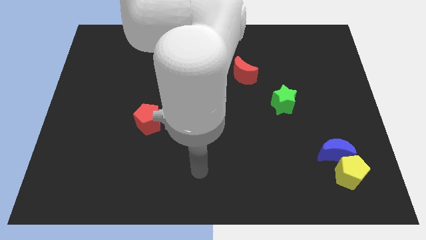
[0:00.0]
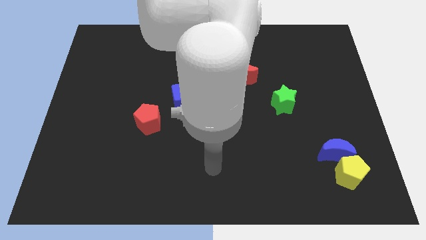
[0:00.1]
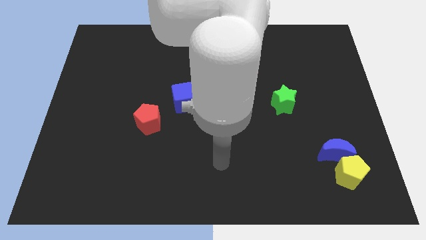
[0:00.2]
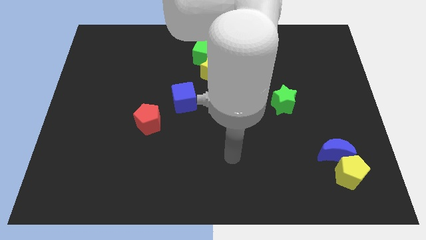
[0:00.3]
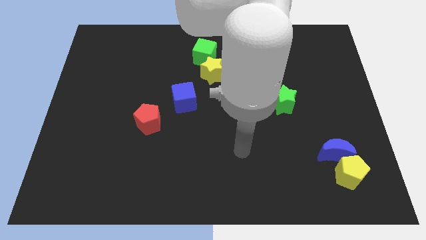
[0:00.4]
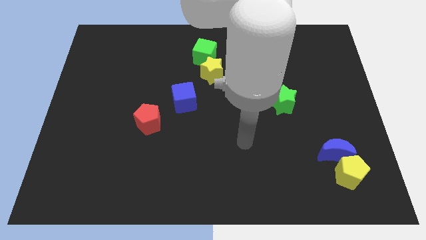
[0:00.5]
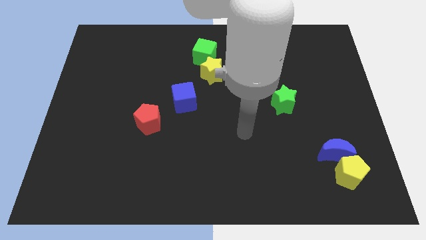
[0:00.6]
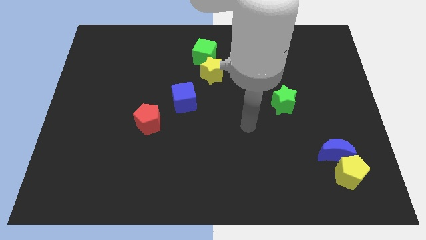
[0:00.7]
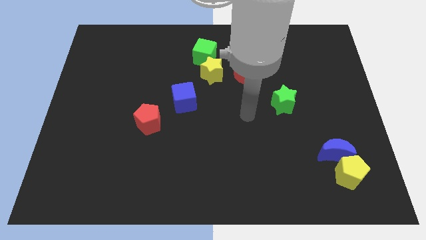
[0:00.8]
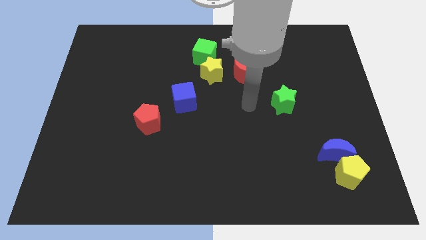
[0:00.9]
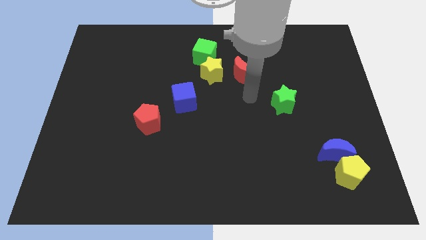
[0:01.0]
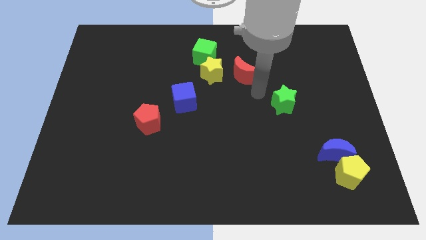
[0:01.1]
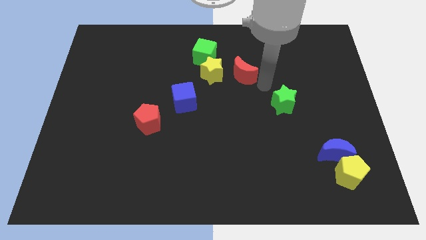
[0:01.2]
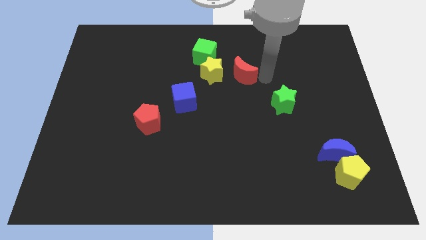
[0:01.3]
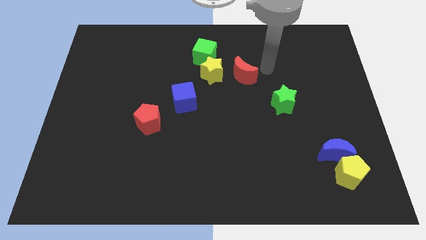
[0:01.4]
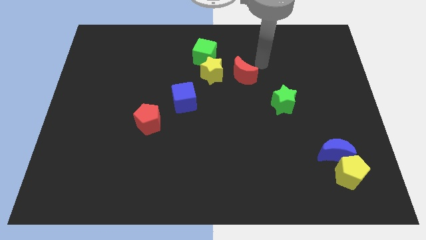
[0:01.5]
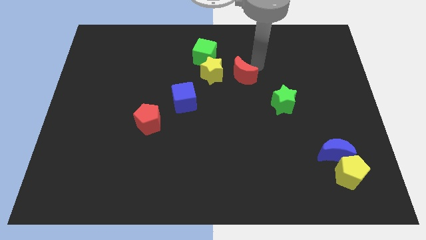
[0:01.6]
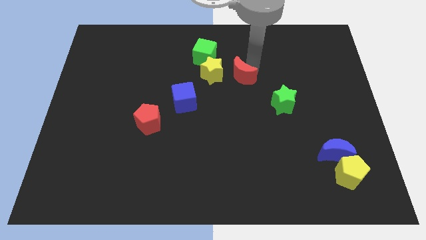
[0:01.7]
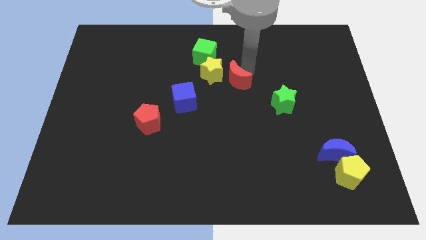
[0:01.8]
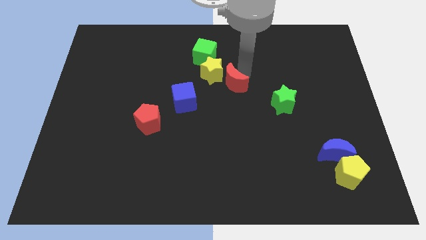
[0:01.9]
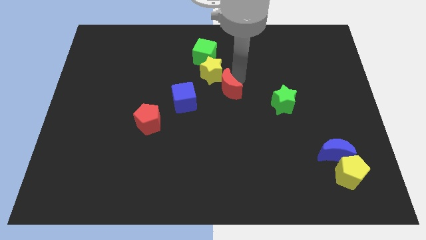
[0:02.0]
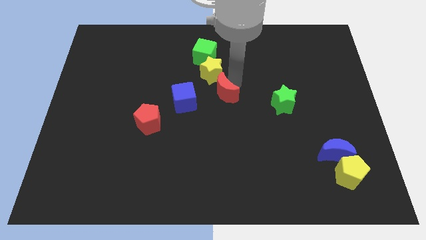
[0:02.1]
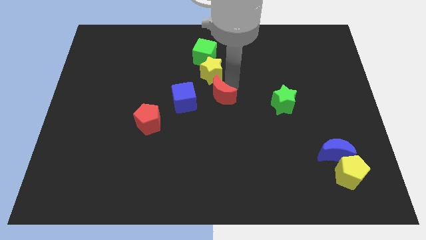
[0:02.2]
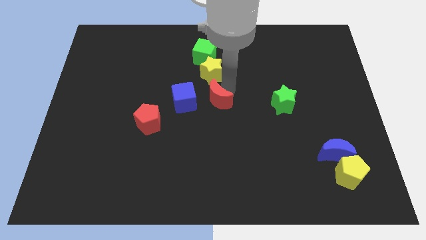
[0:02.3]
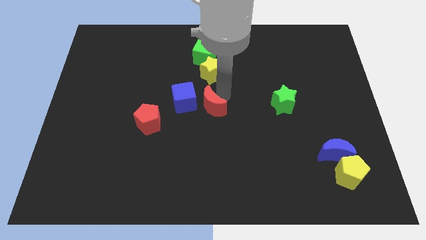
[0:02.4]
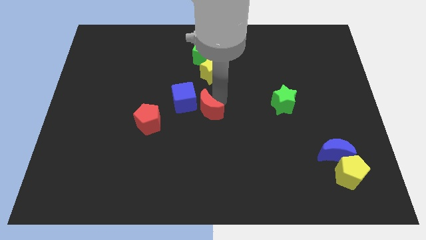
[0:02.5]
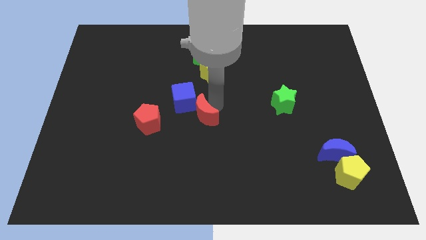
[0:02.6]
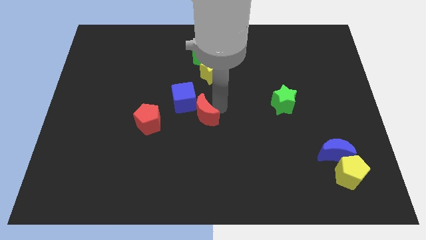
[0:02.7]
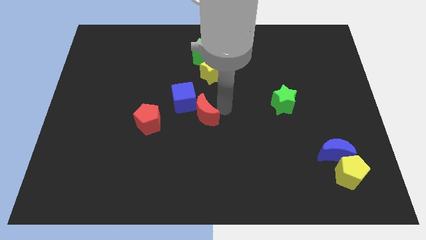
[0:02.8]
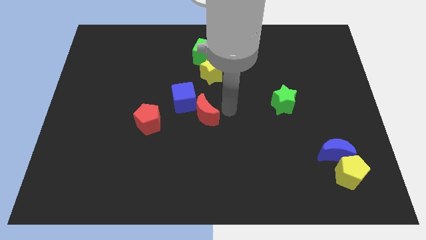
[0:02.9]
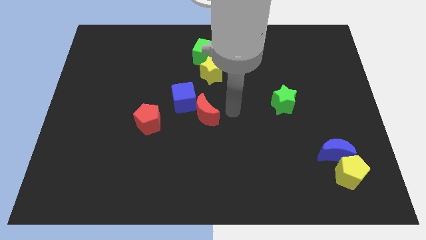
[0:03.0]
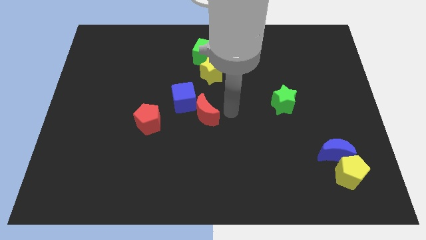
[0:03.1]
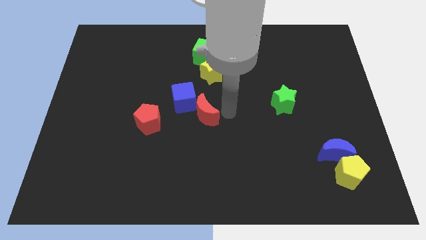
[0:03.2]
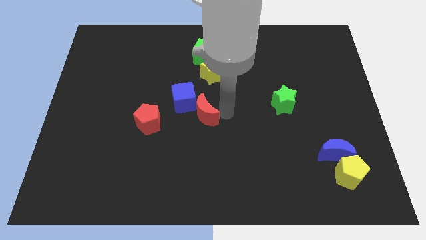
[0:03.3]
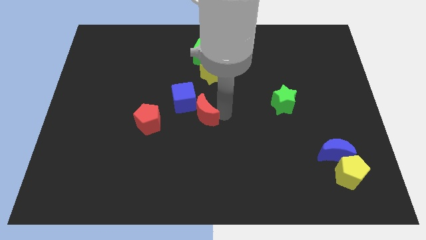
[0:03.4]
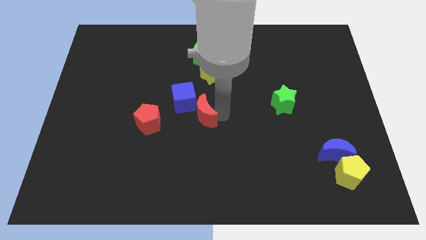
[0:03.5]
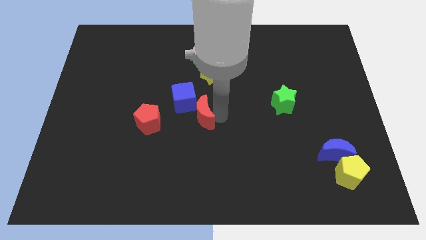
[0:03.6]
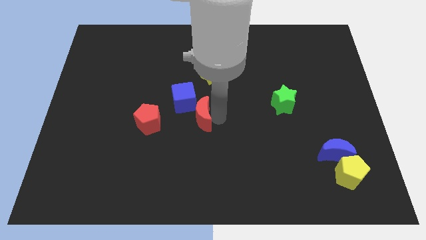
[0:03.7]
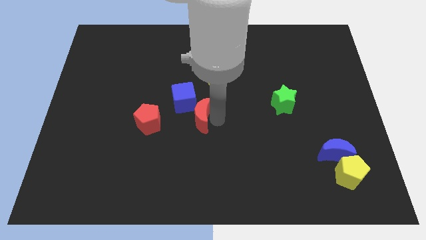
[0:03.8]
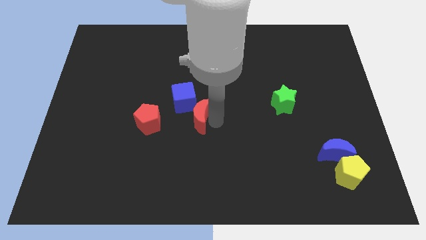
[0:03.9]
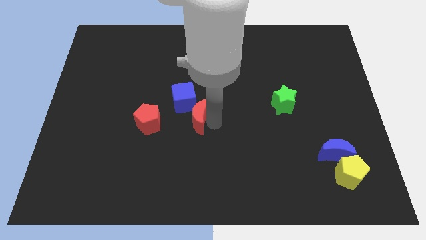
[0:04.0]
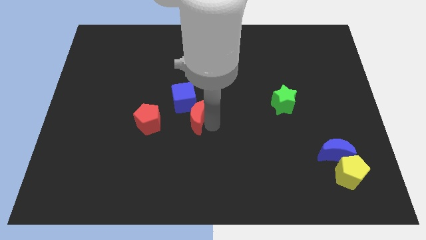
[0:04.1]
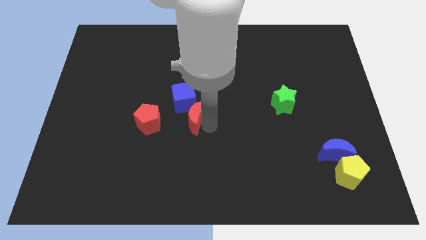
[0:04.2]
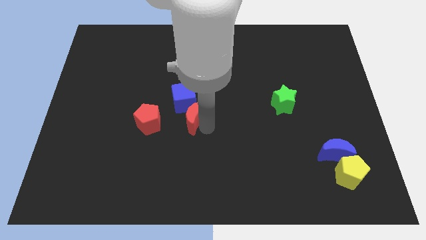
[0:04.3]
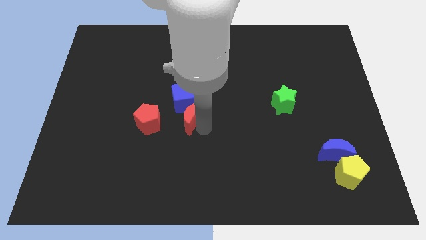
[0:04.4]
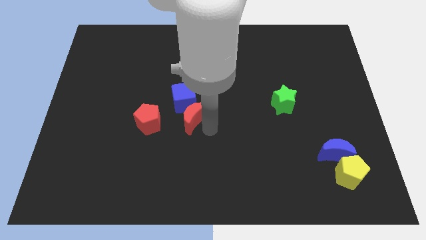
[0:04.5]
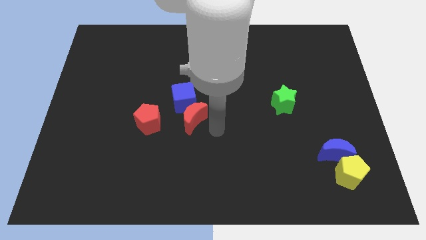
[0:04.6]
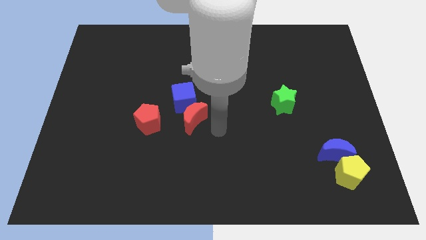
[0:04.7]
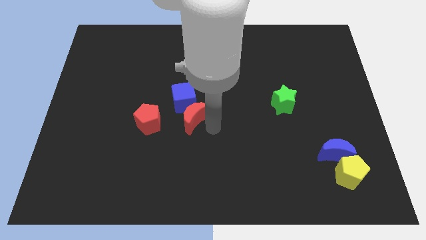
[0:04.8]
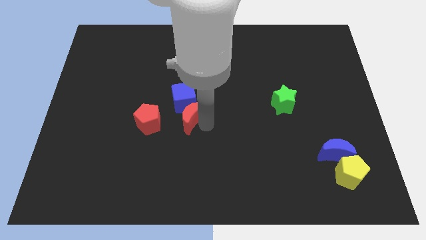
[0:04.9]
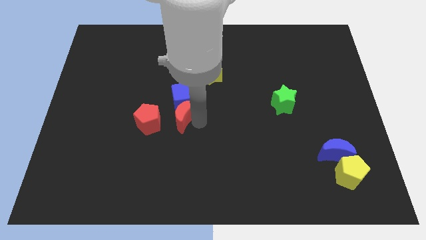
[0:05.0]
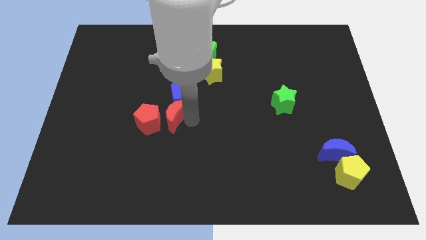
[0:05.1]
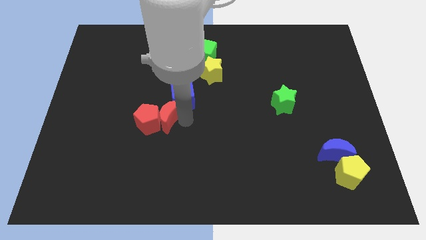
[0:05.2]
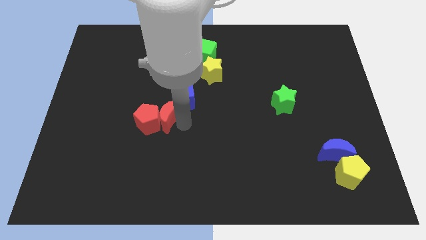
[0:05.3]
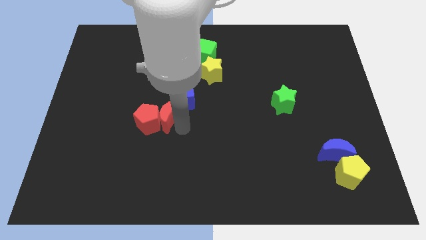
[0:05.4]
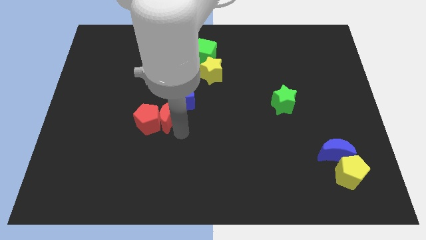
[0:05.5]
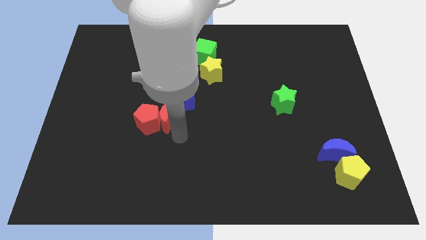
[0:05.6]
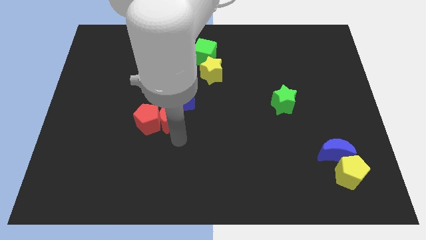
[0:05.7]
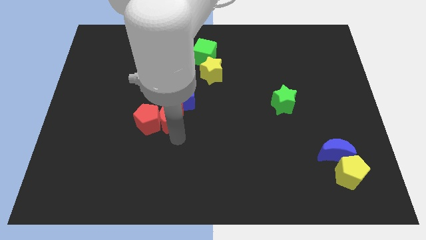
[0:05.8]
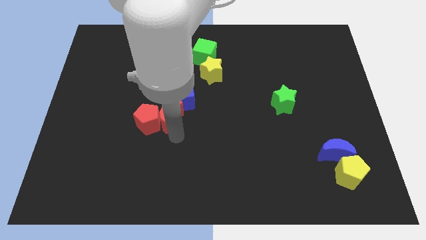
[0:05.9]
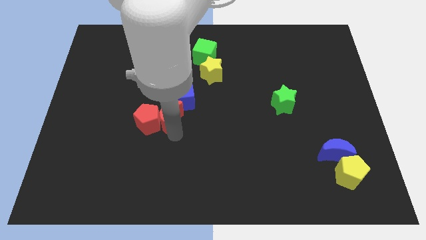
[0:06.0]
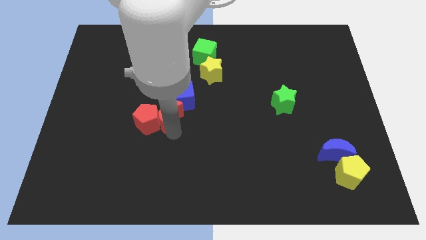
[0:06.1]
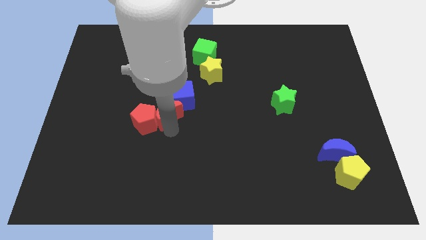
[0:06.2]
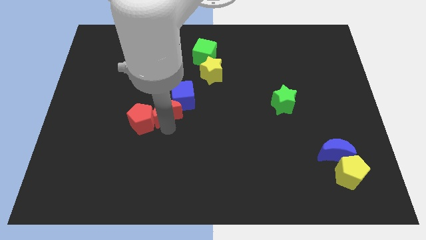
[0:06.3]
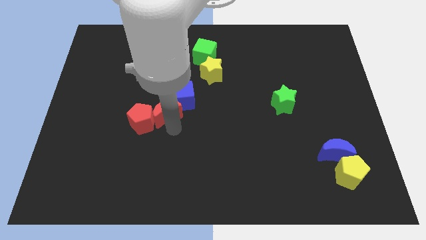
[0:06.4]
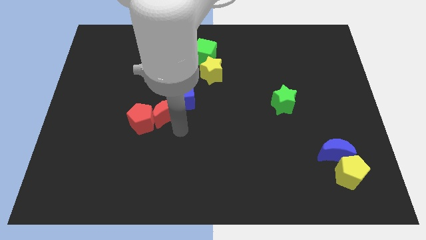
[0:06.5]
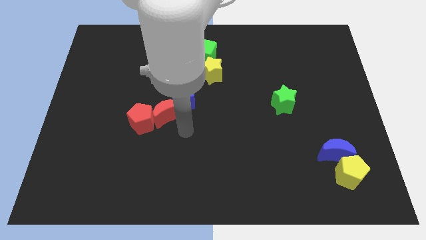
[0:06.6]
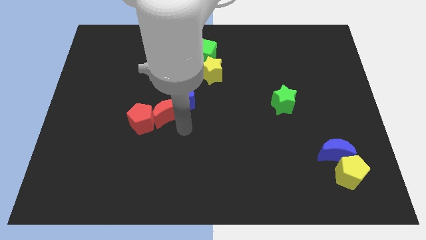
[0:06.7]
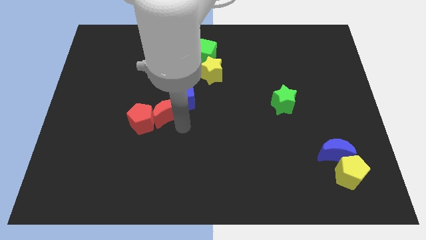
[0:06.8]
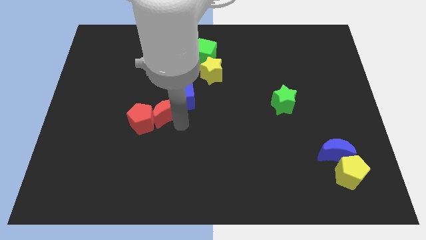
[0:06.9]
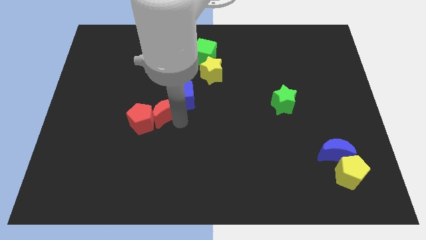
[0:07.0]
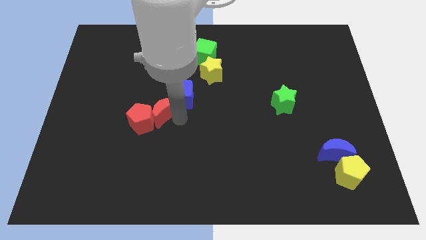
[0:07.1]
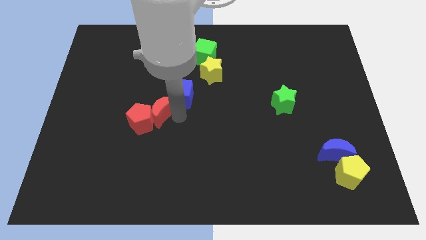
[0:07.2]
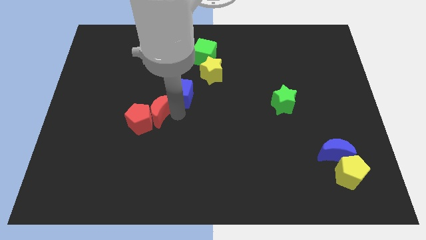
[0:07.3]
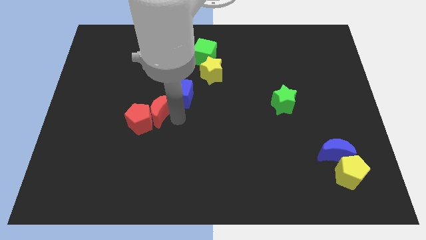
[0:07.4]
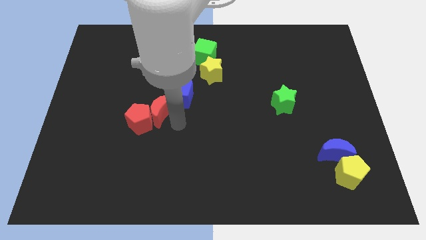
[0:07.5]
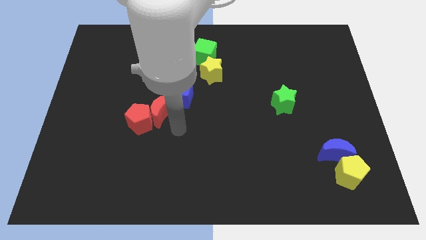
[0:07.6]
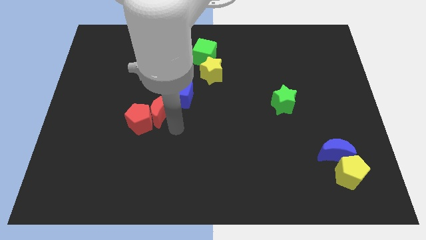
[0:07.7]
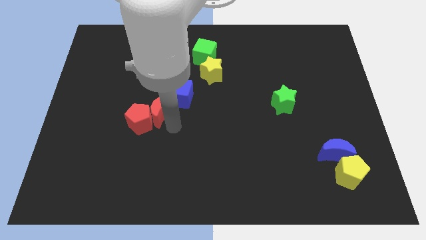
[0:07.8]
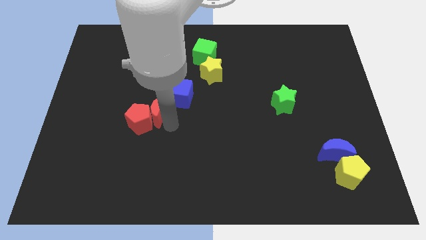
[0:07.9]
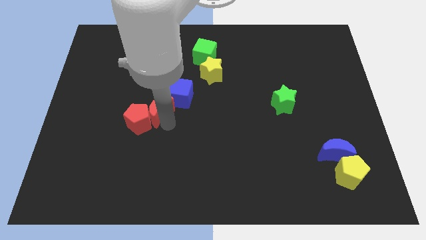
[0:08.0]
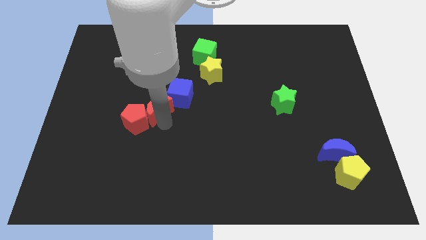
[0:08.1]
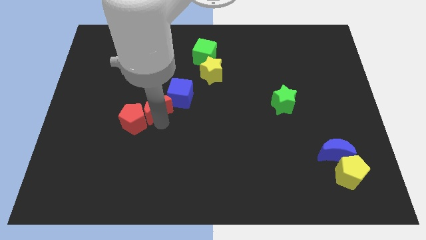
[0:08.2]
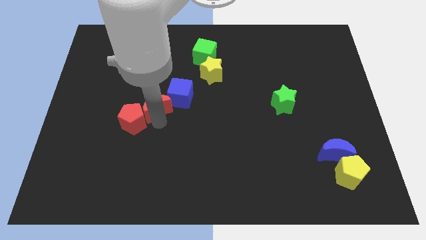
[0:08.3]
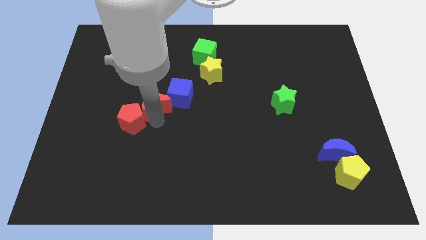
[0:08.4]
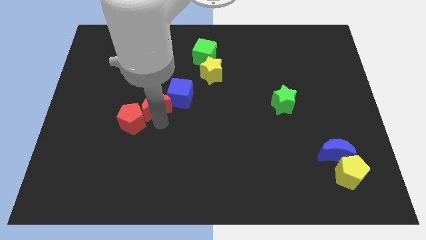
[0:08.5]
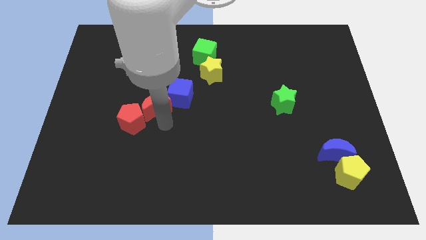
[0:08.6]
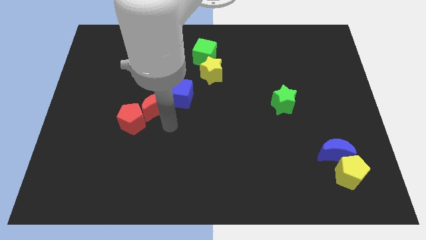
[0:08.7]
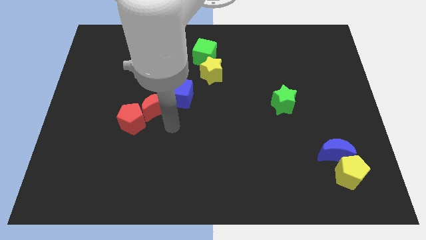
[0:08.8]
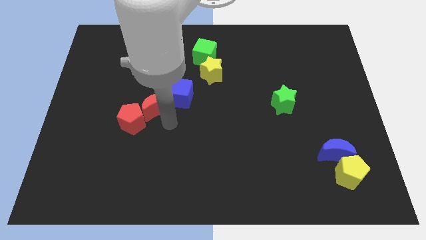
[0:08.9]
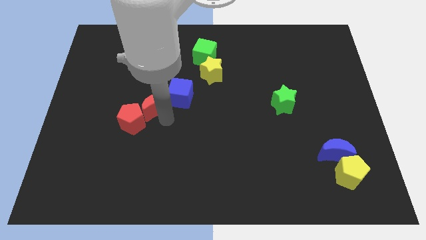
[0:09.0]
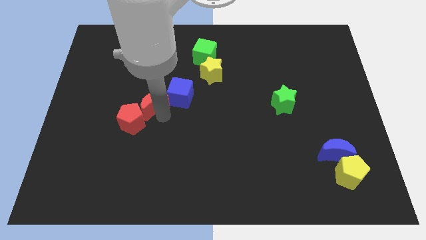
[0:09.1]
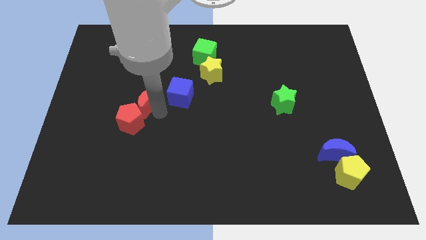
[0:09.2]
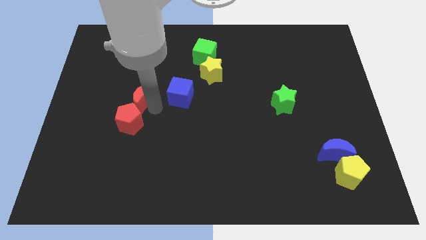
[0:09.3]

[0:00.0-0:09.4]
push the red moon left
